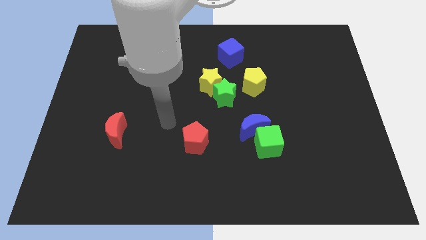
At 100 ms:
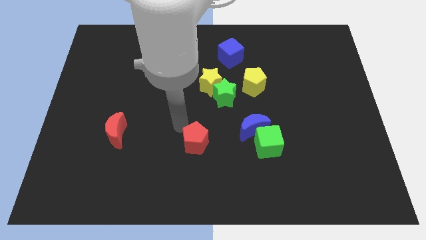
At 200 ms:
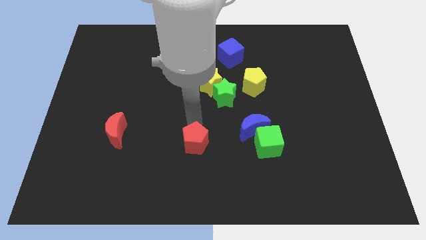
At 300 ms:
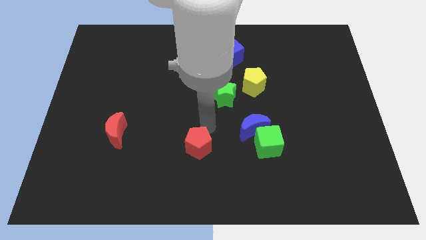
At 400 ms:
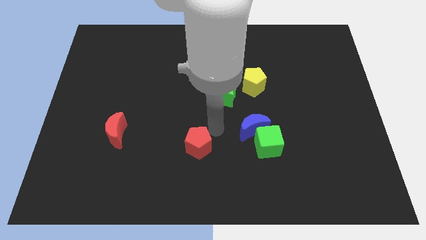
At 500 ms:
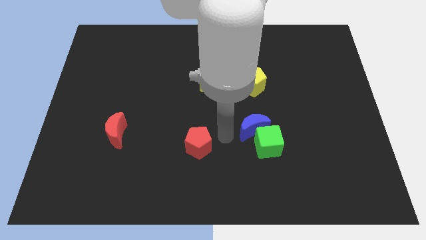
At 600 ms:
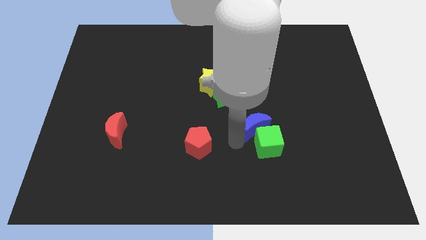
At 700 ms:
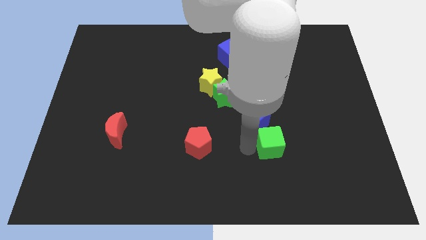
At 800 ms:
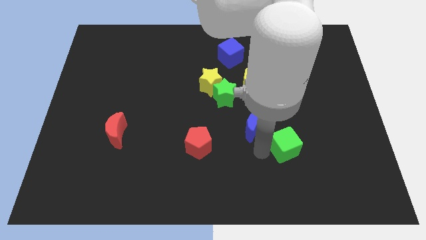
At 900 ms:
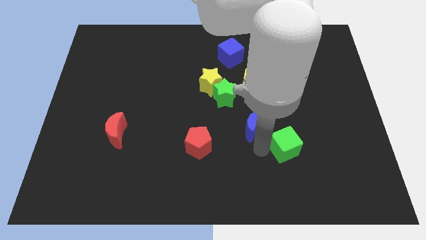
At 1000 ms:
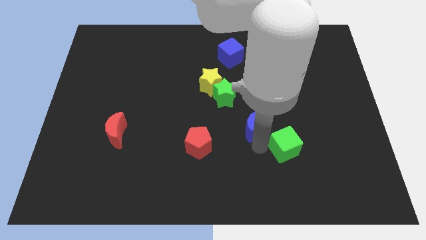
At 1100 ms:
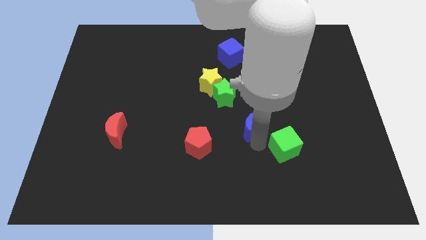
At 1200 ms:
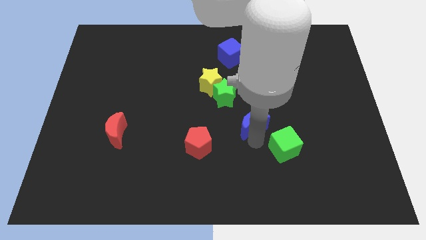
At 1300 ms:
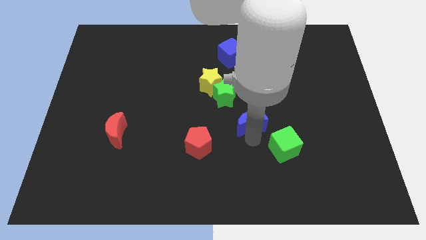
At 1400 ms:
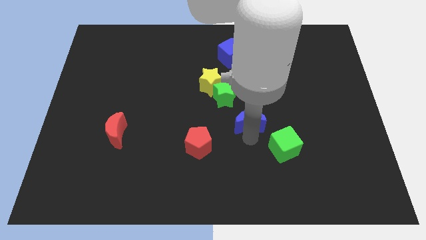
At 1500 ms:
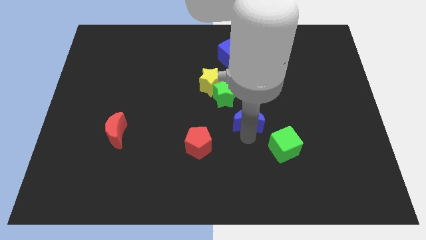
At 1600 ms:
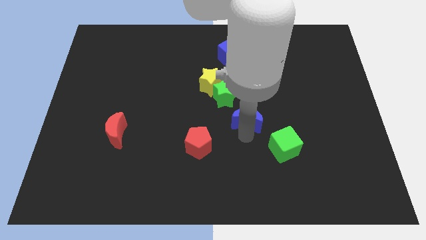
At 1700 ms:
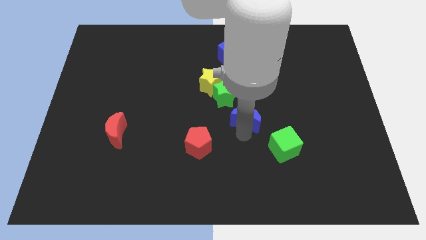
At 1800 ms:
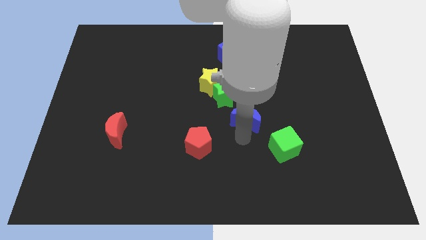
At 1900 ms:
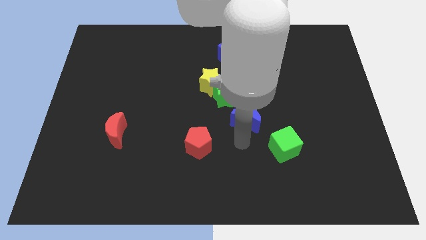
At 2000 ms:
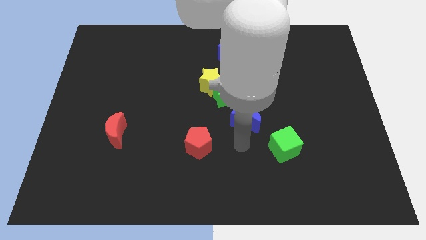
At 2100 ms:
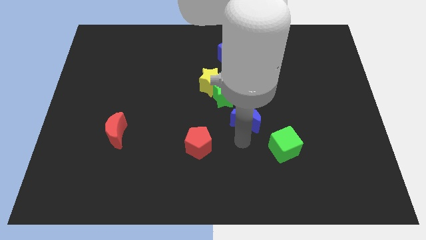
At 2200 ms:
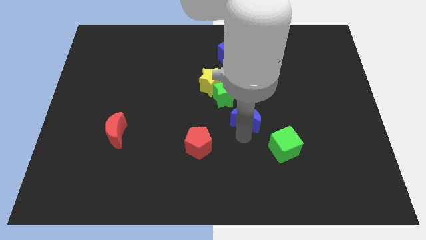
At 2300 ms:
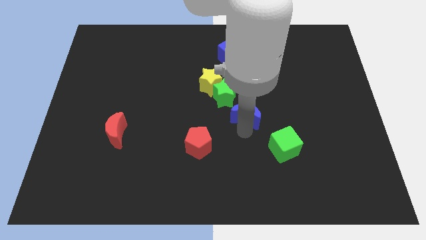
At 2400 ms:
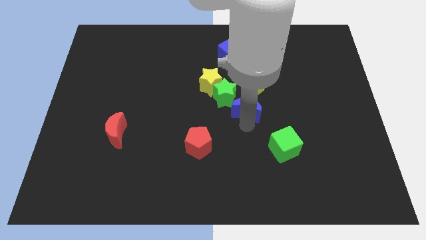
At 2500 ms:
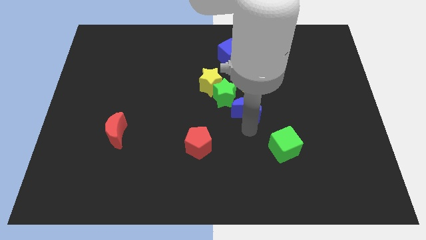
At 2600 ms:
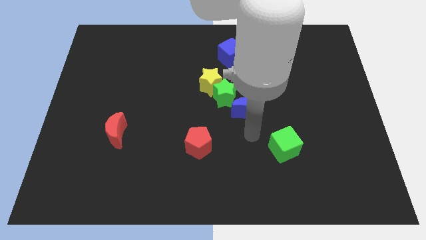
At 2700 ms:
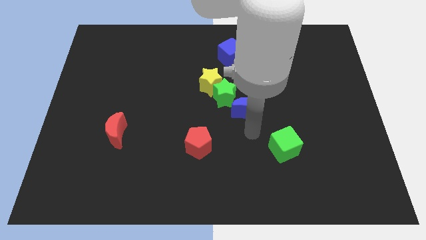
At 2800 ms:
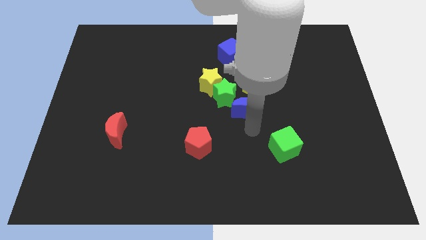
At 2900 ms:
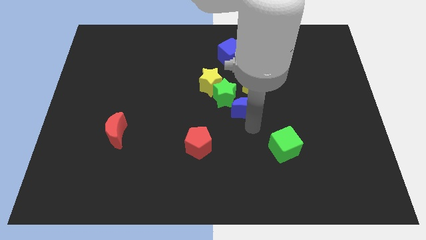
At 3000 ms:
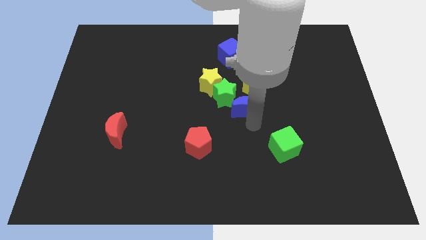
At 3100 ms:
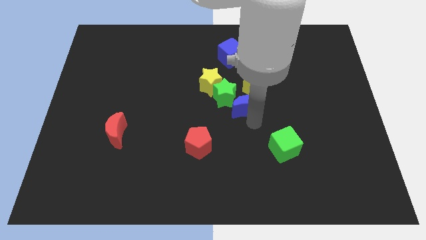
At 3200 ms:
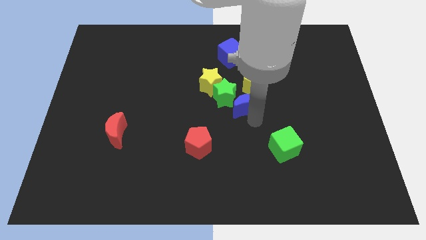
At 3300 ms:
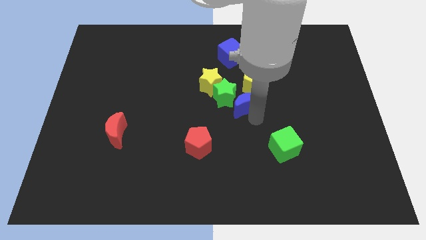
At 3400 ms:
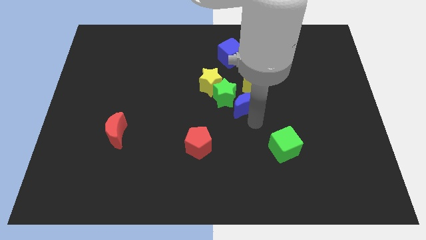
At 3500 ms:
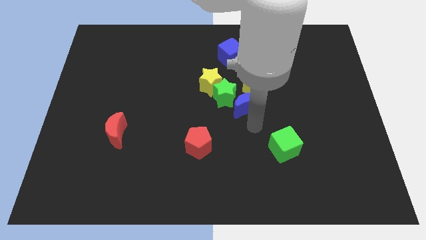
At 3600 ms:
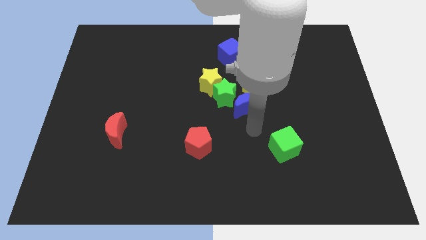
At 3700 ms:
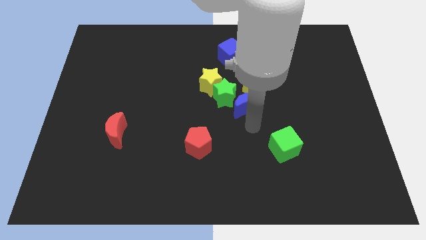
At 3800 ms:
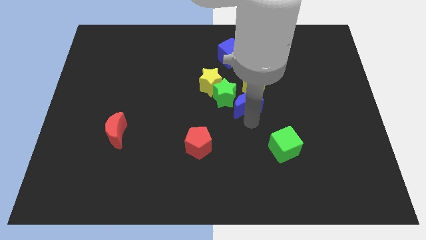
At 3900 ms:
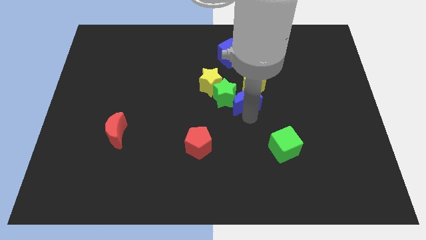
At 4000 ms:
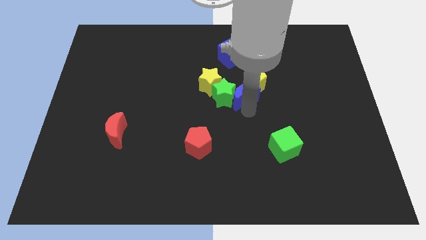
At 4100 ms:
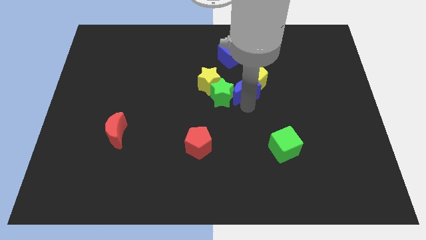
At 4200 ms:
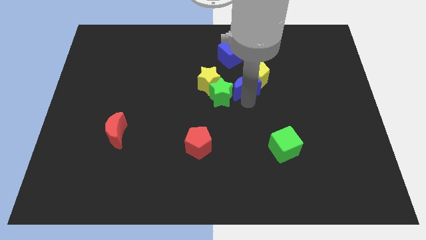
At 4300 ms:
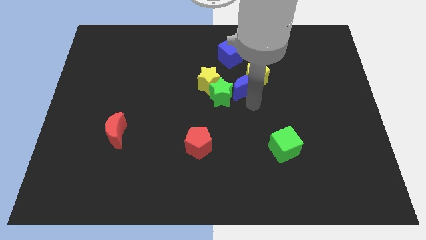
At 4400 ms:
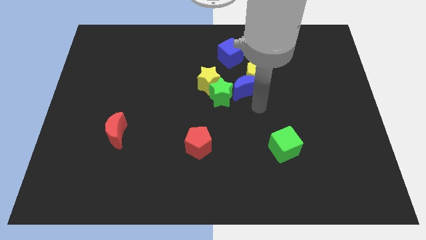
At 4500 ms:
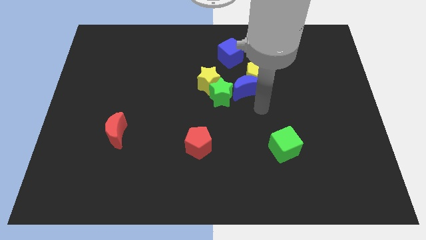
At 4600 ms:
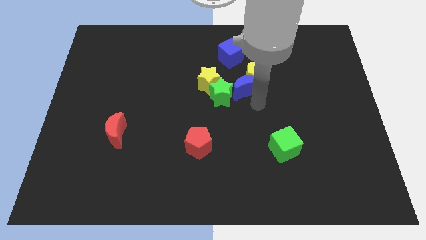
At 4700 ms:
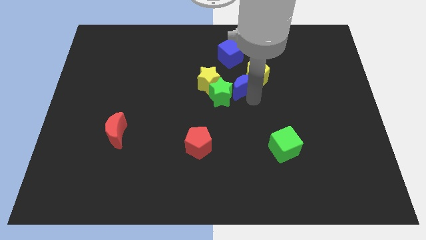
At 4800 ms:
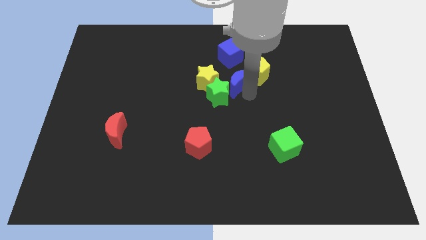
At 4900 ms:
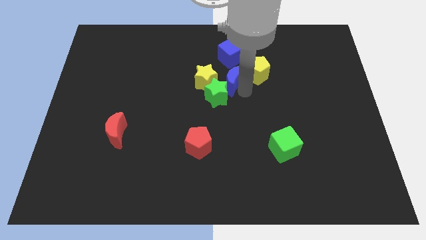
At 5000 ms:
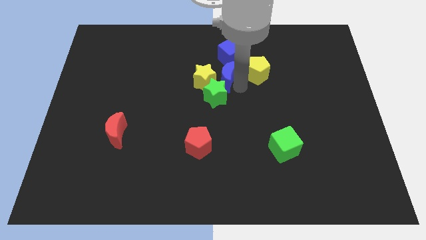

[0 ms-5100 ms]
move the blue moon diagonally down and to the left of the blue cube

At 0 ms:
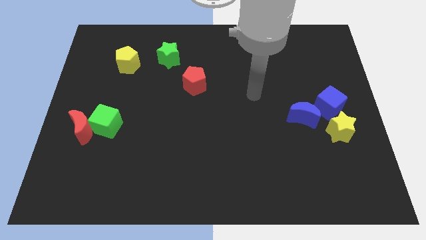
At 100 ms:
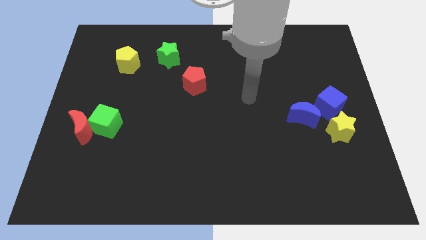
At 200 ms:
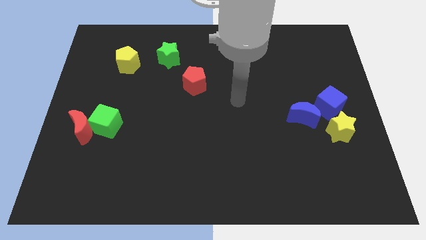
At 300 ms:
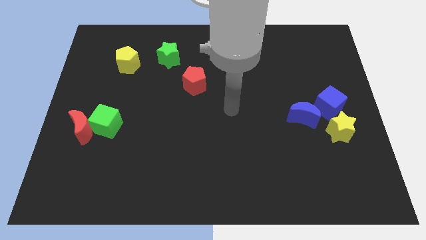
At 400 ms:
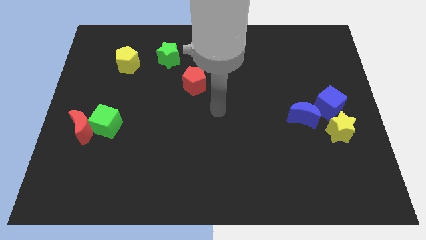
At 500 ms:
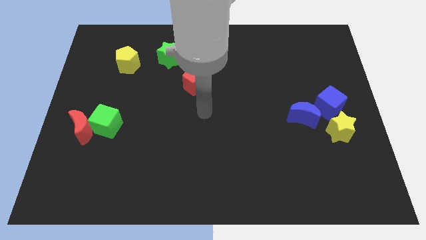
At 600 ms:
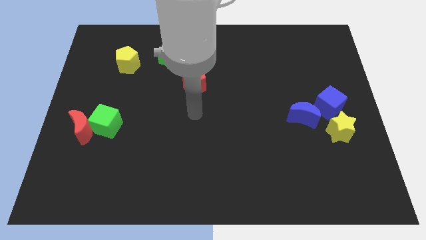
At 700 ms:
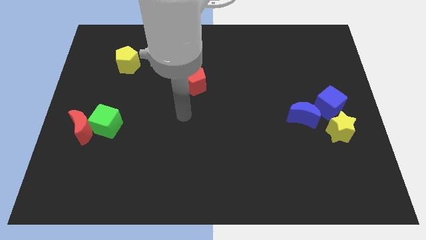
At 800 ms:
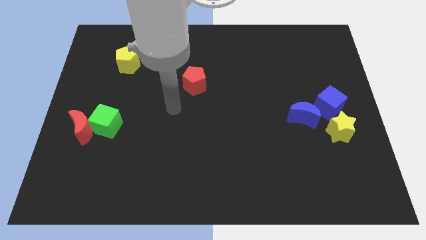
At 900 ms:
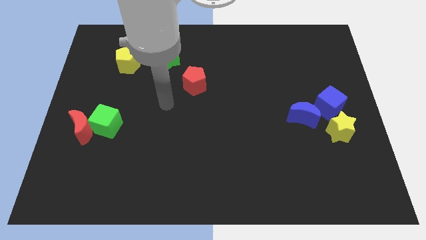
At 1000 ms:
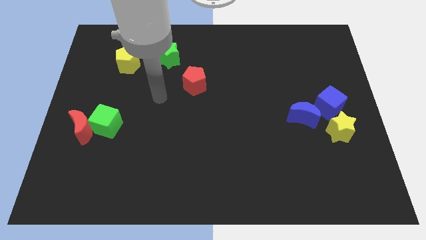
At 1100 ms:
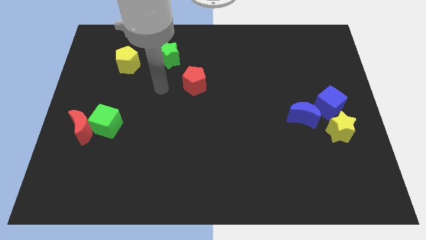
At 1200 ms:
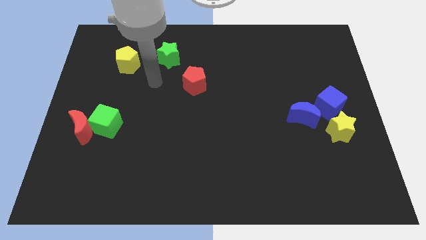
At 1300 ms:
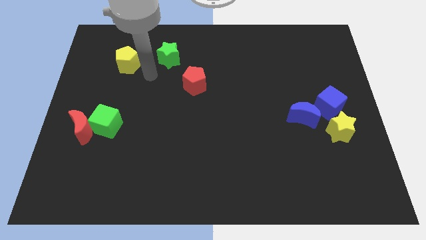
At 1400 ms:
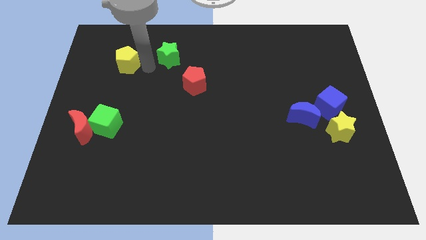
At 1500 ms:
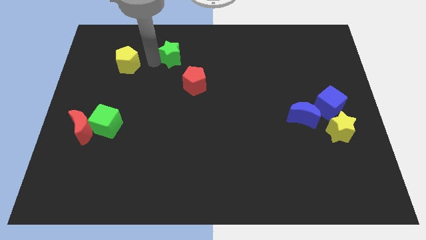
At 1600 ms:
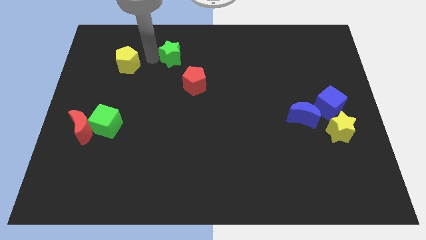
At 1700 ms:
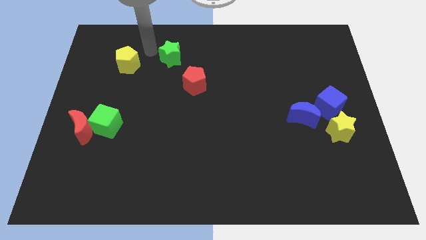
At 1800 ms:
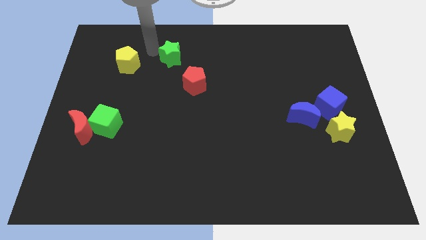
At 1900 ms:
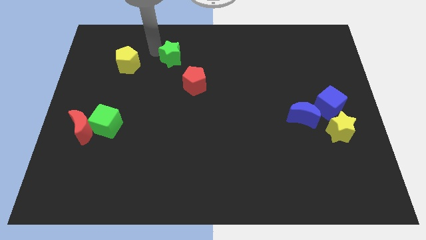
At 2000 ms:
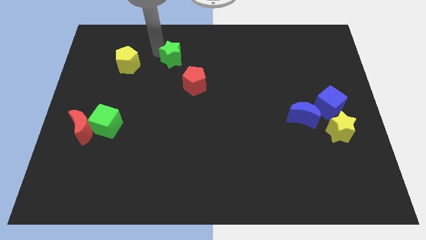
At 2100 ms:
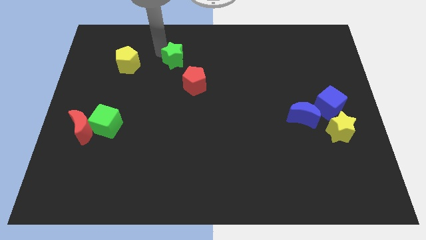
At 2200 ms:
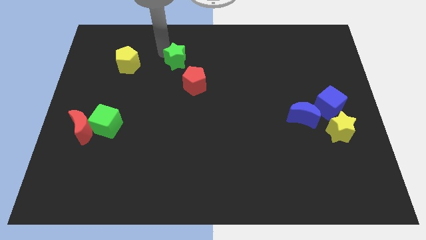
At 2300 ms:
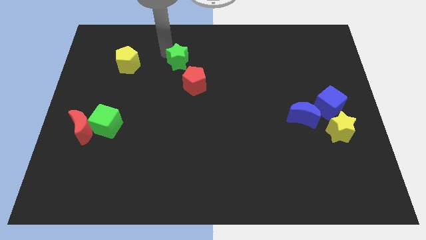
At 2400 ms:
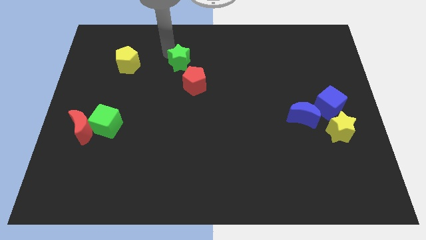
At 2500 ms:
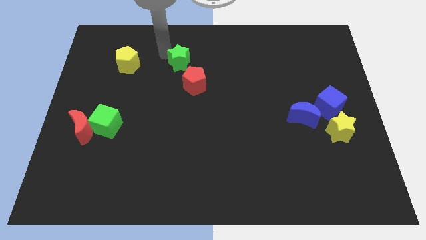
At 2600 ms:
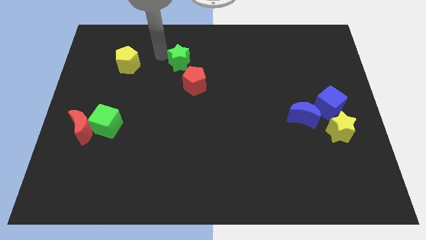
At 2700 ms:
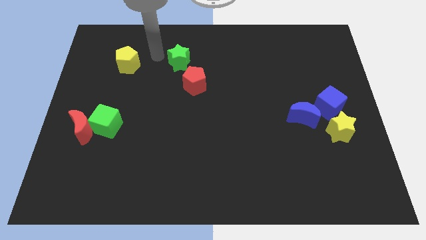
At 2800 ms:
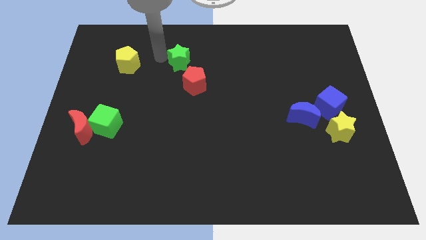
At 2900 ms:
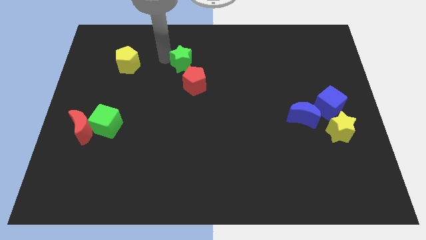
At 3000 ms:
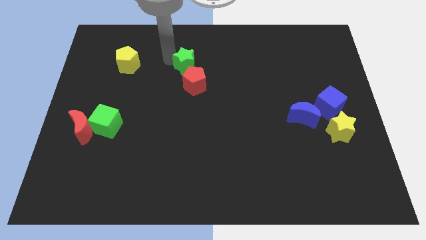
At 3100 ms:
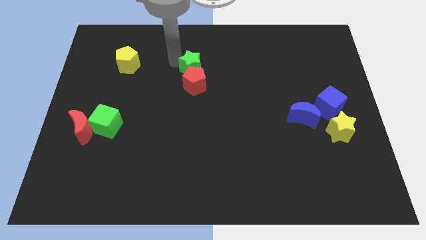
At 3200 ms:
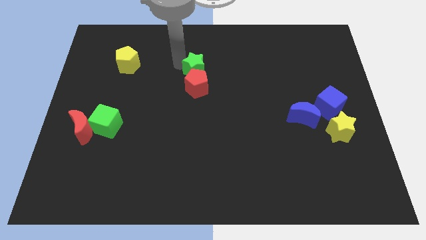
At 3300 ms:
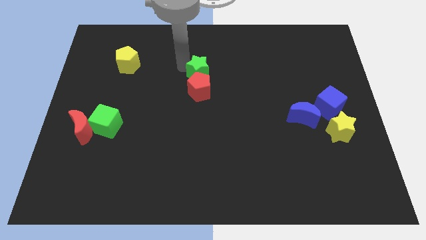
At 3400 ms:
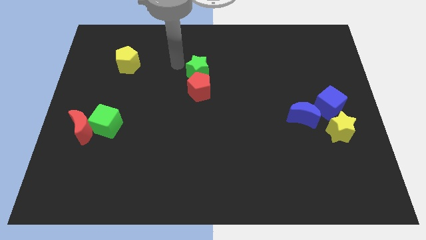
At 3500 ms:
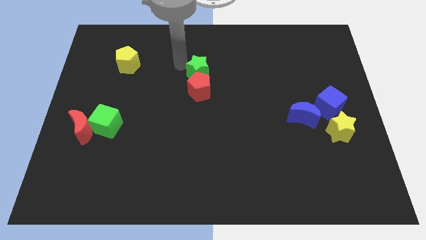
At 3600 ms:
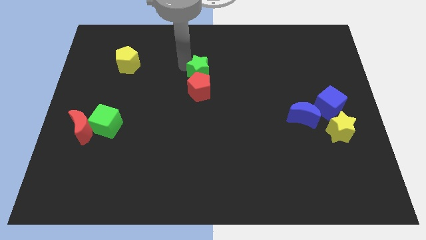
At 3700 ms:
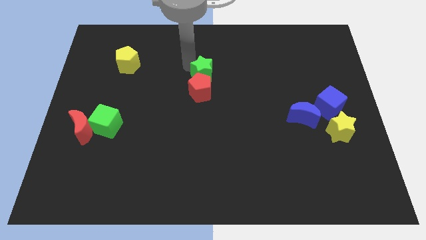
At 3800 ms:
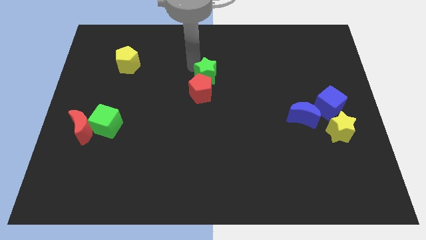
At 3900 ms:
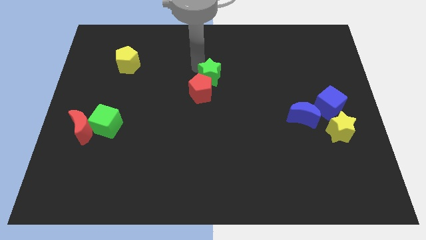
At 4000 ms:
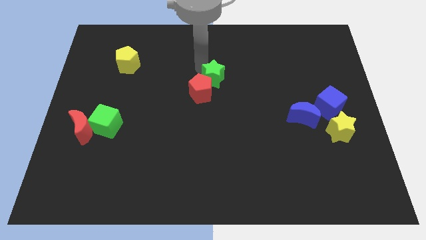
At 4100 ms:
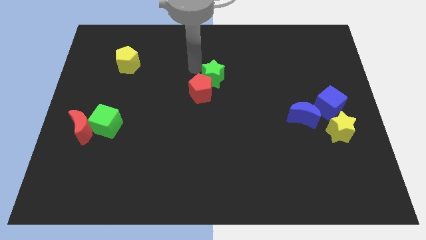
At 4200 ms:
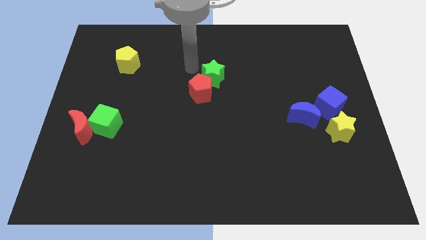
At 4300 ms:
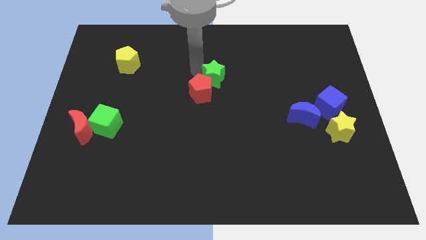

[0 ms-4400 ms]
slide the green star to the right of the red pentagon
